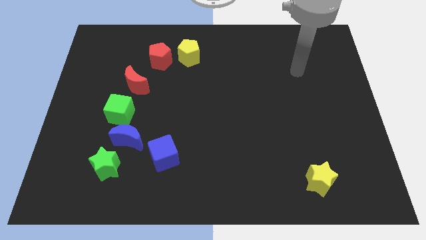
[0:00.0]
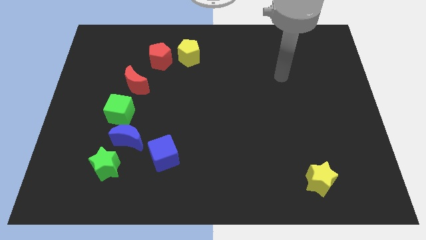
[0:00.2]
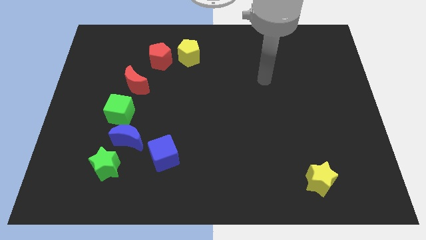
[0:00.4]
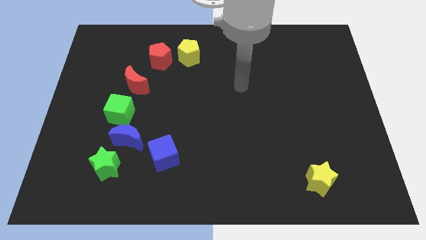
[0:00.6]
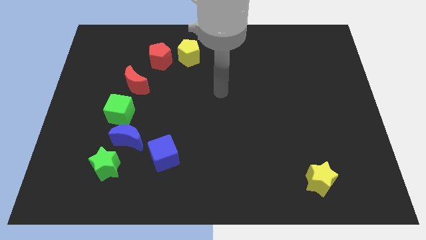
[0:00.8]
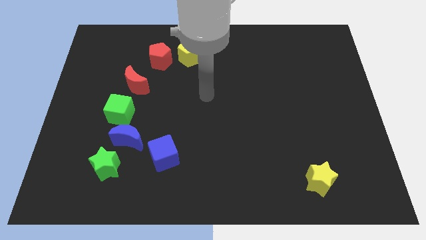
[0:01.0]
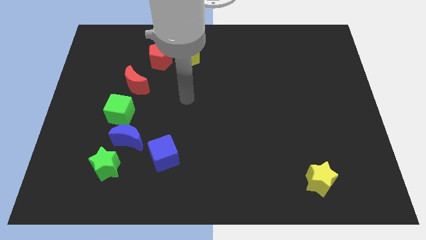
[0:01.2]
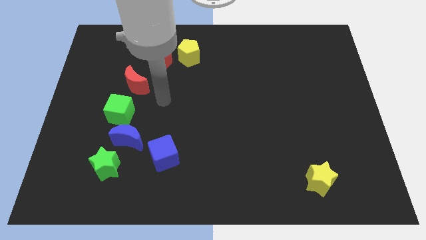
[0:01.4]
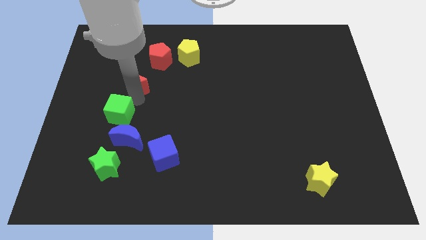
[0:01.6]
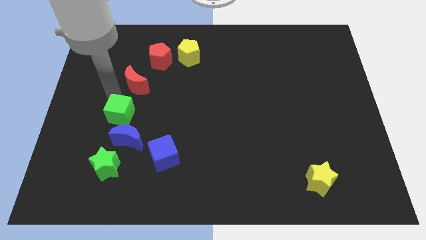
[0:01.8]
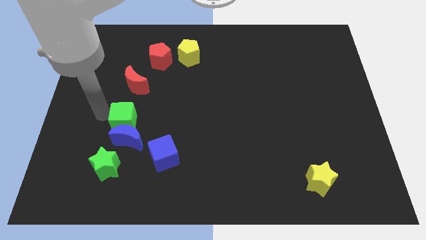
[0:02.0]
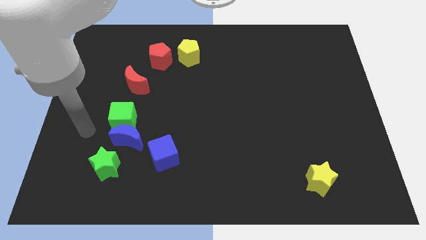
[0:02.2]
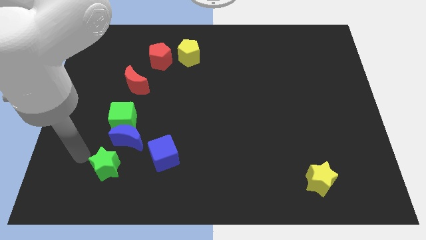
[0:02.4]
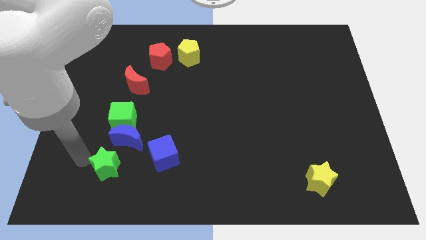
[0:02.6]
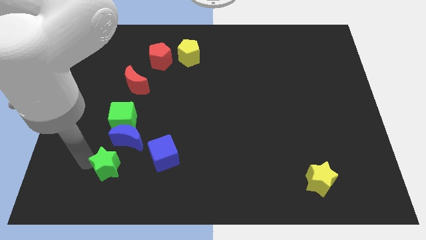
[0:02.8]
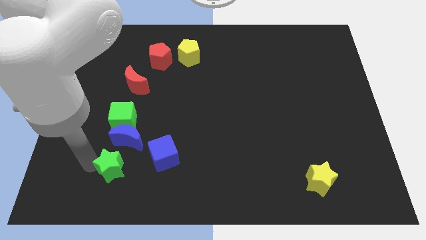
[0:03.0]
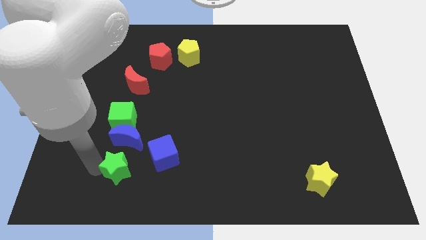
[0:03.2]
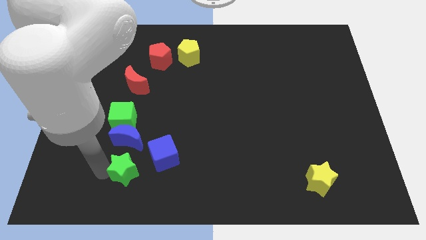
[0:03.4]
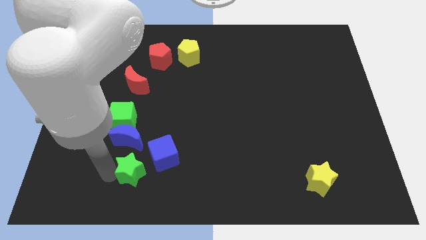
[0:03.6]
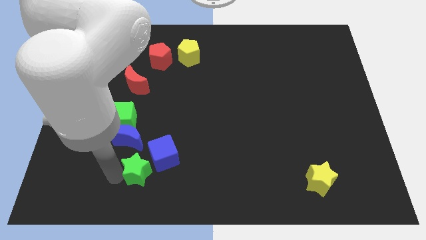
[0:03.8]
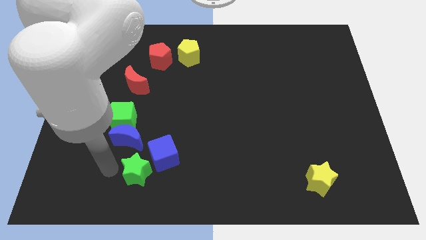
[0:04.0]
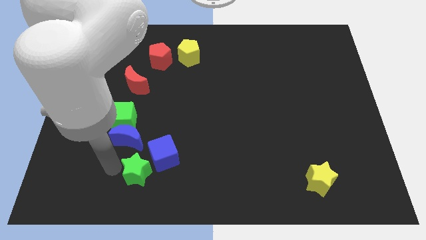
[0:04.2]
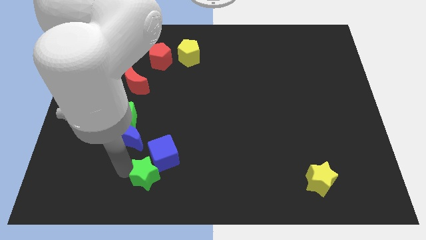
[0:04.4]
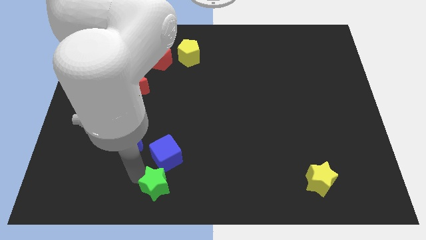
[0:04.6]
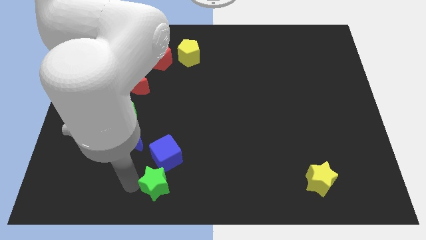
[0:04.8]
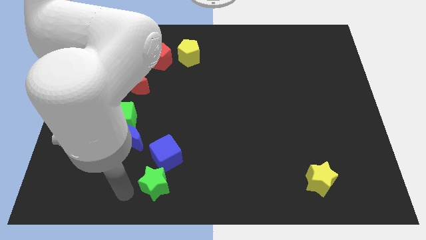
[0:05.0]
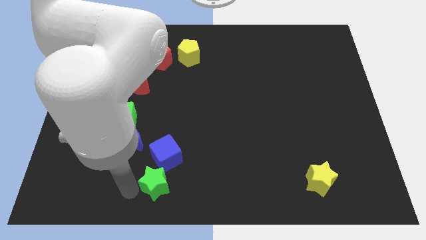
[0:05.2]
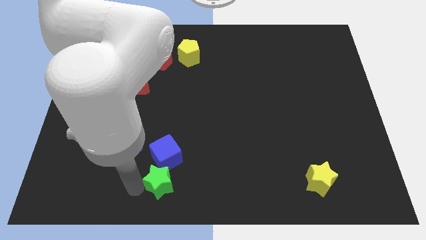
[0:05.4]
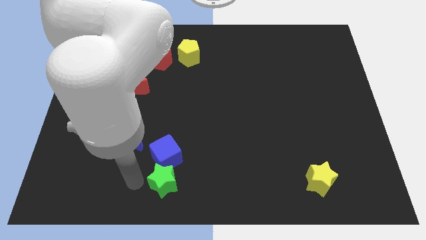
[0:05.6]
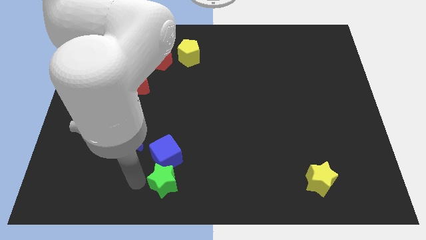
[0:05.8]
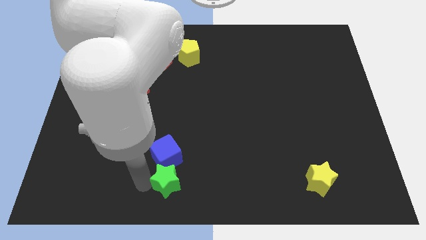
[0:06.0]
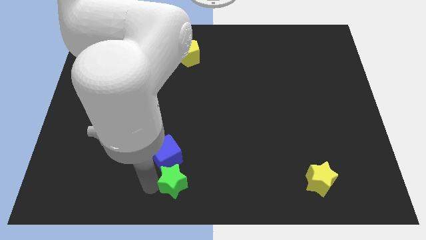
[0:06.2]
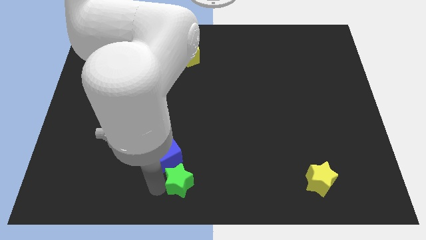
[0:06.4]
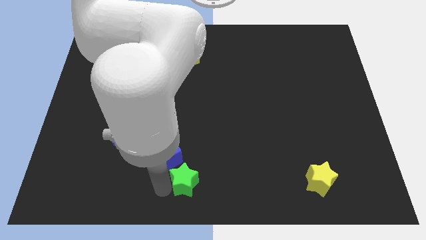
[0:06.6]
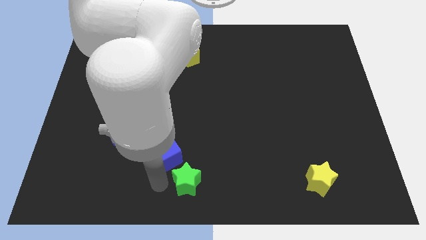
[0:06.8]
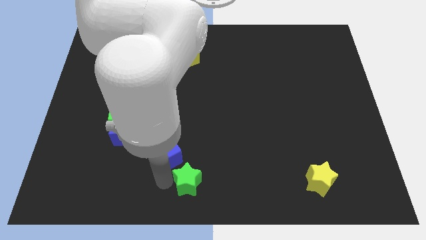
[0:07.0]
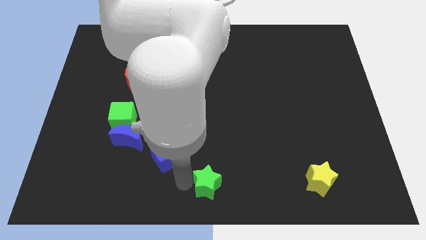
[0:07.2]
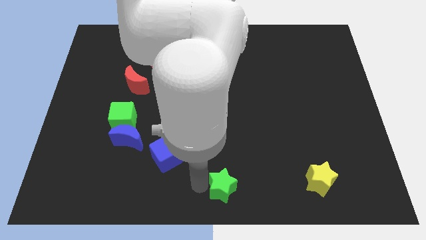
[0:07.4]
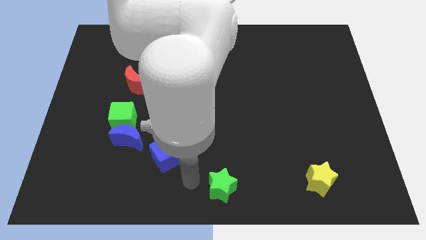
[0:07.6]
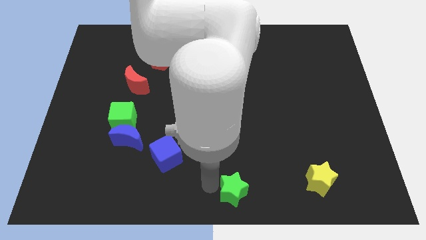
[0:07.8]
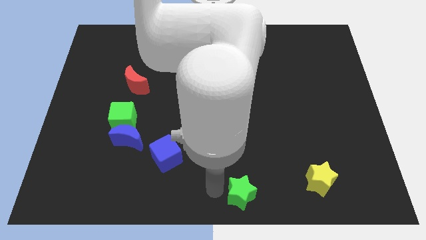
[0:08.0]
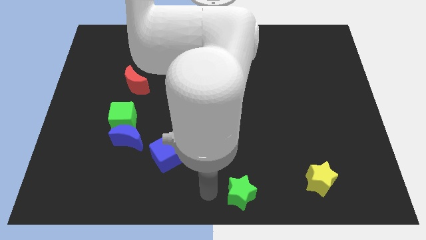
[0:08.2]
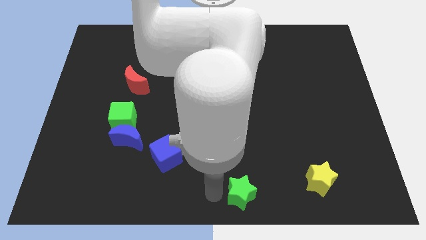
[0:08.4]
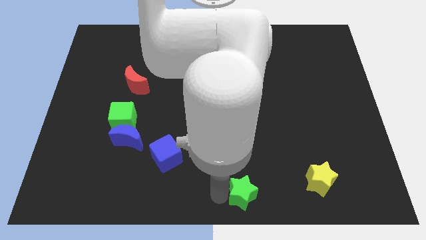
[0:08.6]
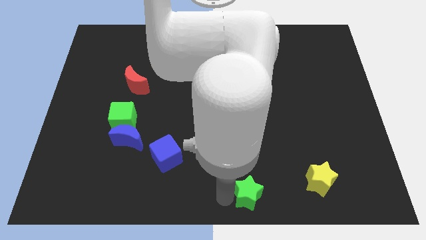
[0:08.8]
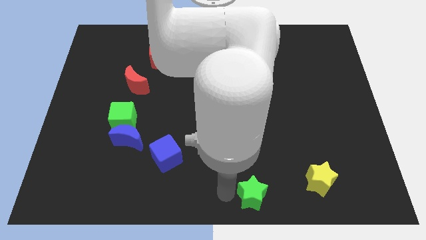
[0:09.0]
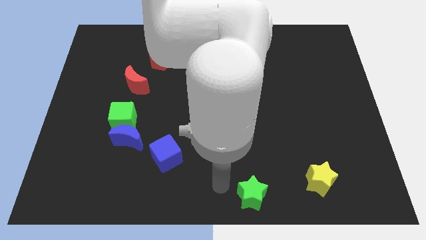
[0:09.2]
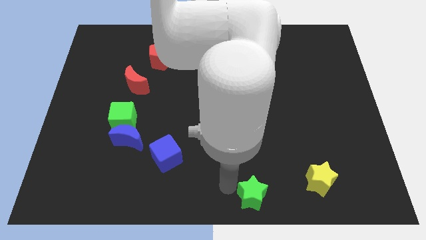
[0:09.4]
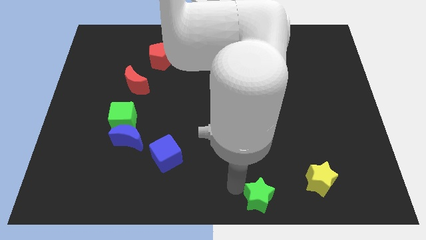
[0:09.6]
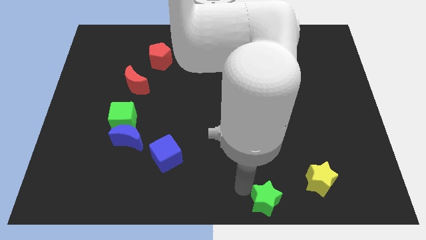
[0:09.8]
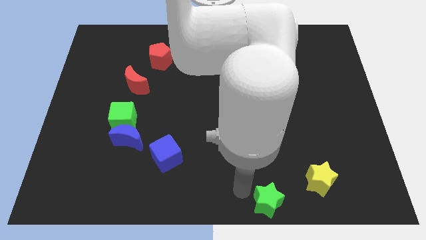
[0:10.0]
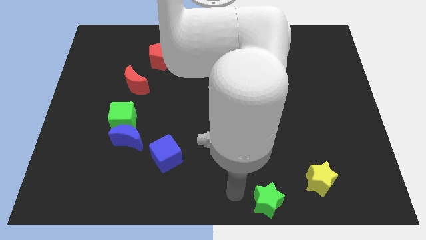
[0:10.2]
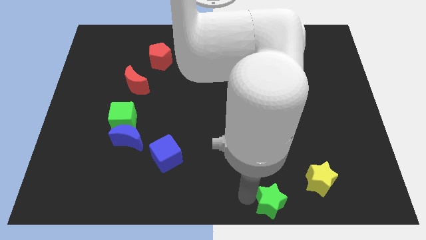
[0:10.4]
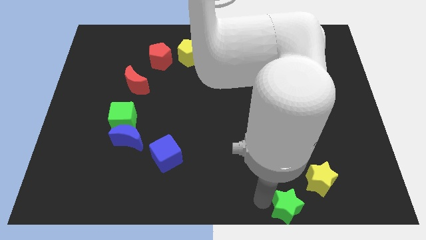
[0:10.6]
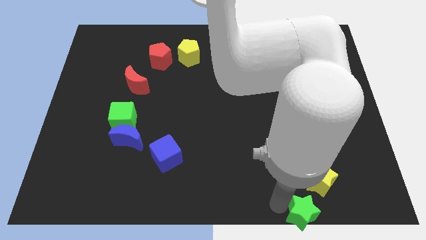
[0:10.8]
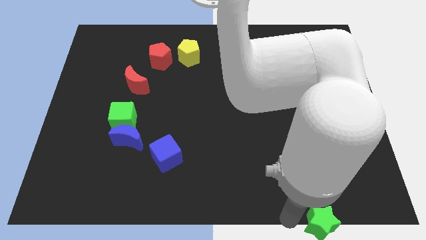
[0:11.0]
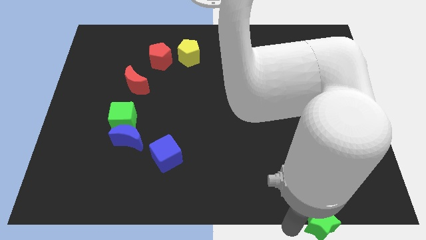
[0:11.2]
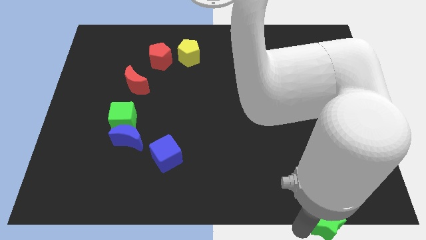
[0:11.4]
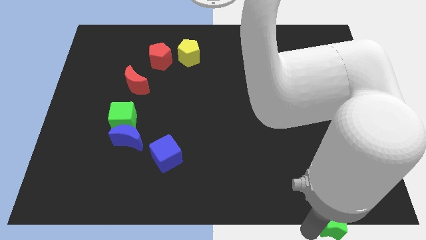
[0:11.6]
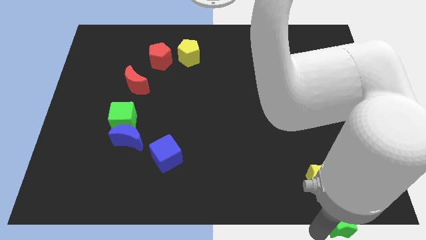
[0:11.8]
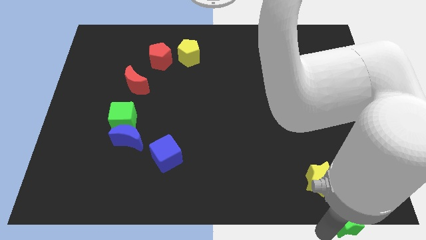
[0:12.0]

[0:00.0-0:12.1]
slide the green star to the bottom right of the board

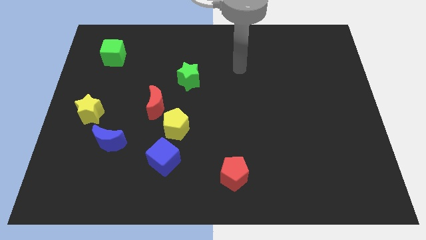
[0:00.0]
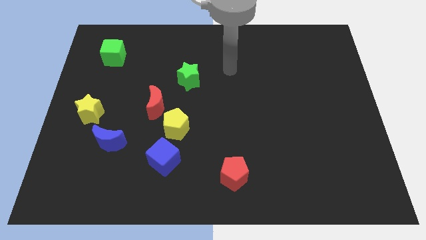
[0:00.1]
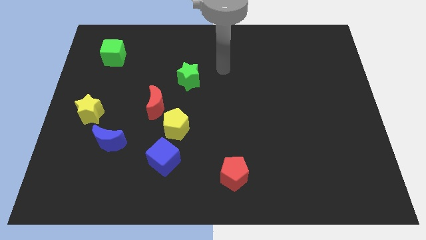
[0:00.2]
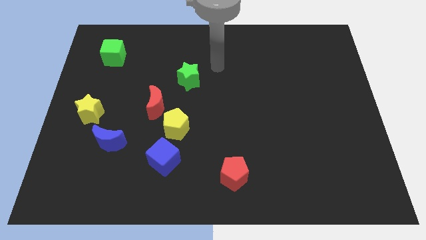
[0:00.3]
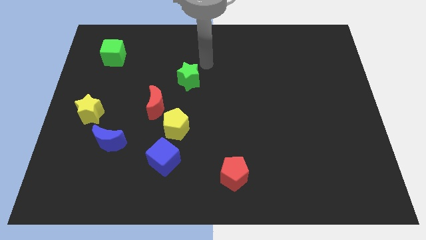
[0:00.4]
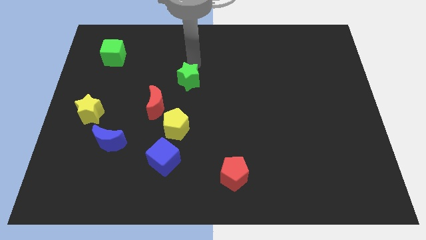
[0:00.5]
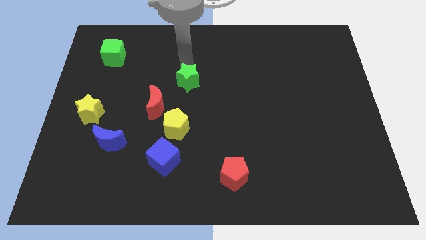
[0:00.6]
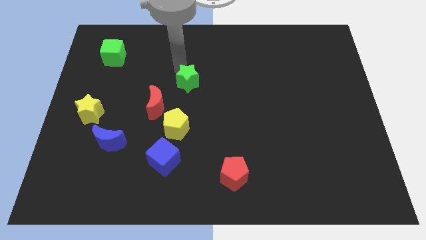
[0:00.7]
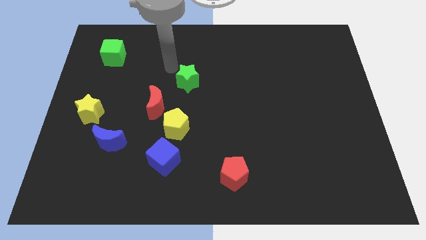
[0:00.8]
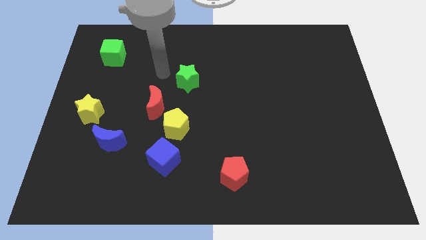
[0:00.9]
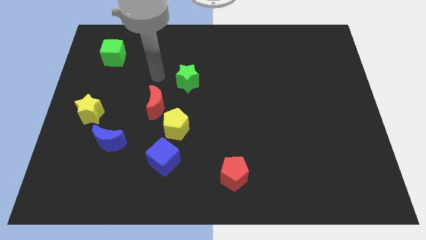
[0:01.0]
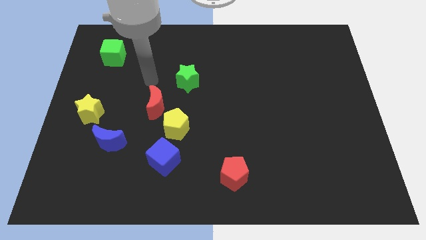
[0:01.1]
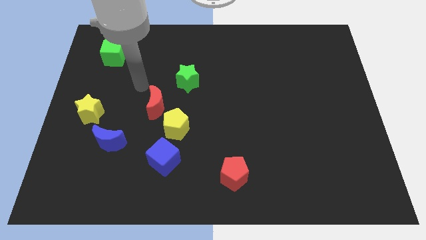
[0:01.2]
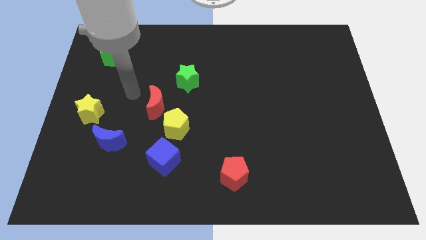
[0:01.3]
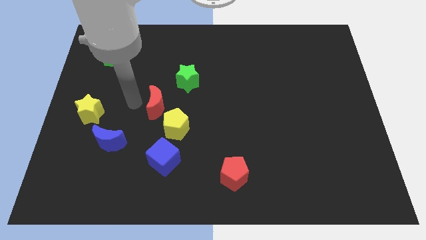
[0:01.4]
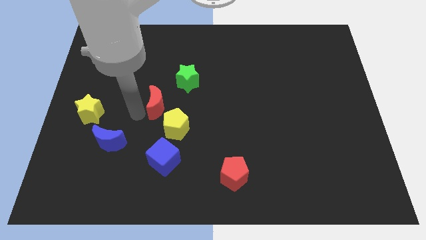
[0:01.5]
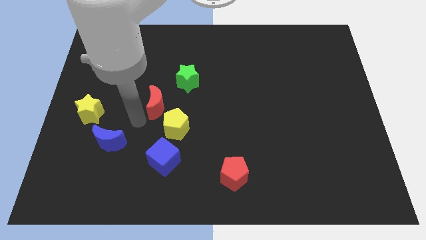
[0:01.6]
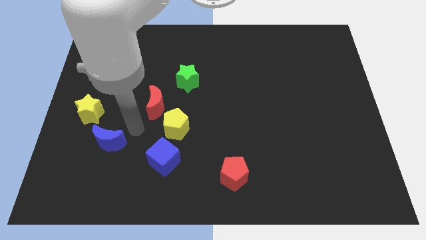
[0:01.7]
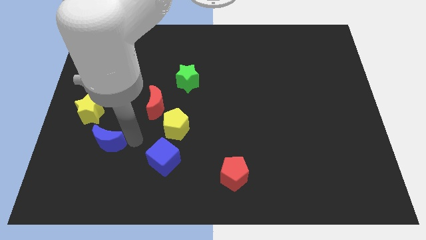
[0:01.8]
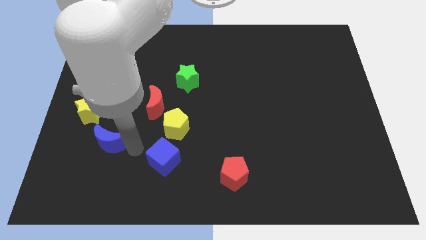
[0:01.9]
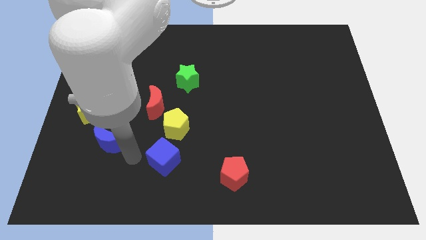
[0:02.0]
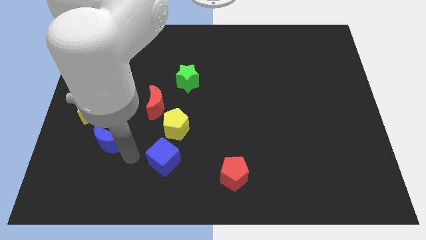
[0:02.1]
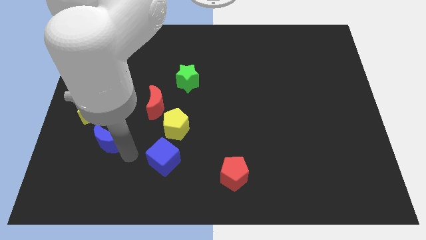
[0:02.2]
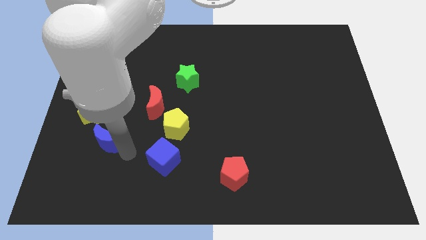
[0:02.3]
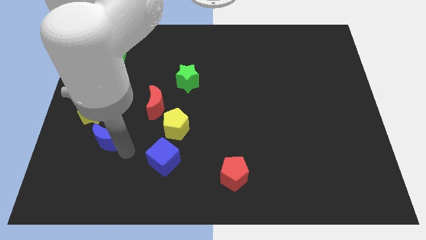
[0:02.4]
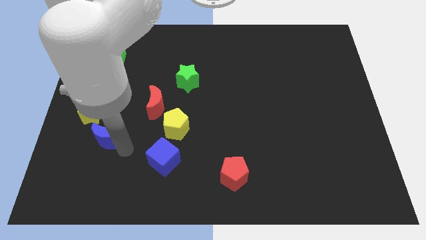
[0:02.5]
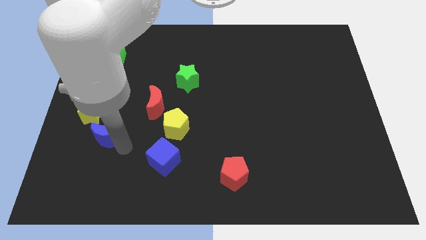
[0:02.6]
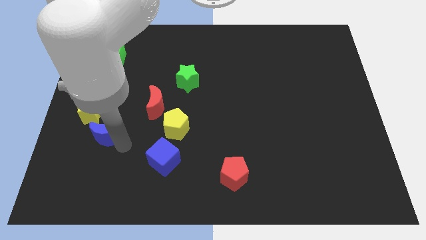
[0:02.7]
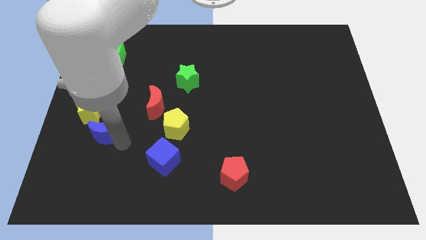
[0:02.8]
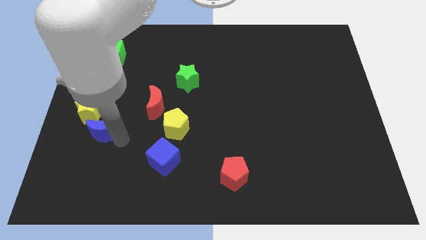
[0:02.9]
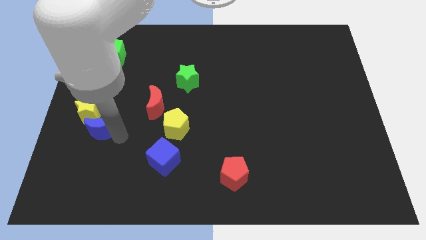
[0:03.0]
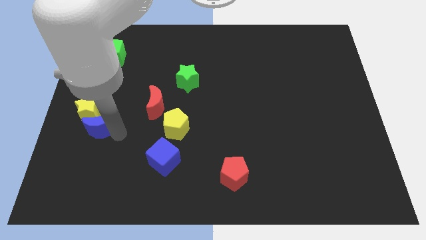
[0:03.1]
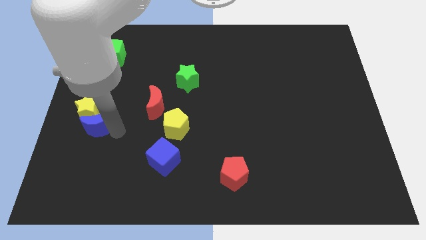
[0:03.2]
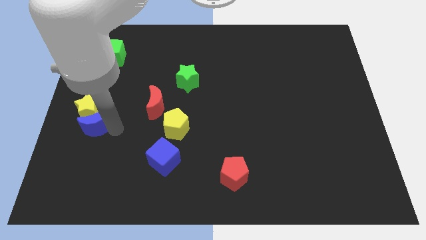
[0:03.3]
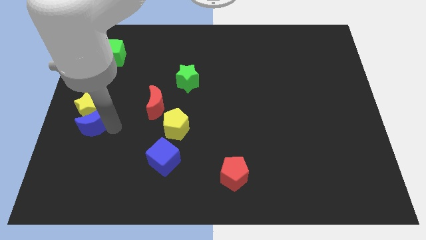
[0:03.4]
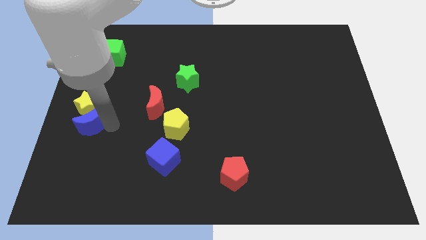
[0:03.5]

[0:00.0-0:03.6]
slide the blue moon to the center left
